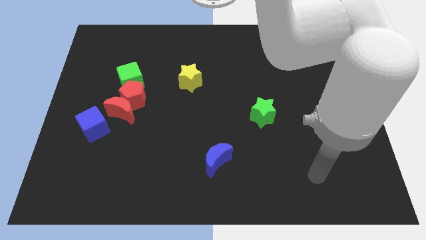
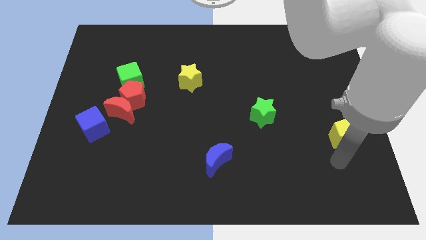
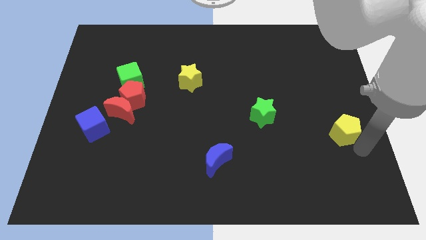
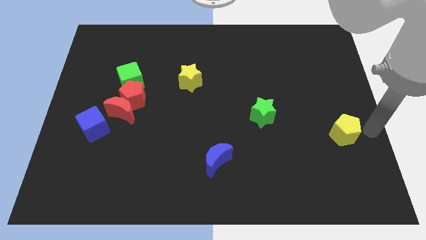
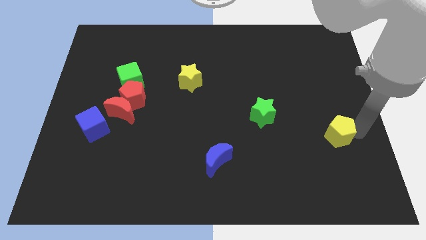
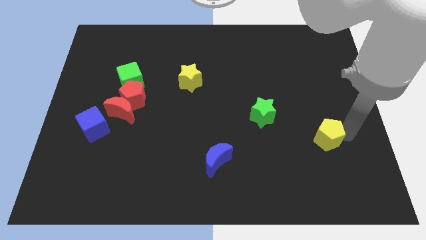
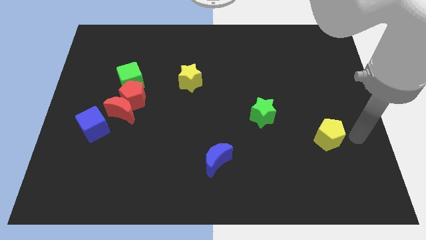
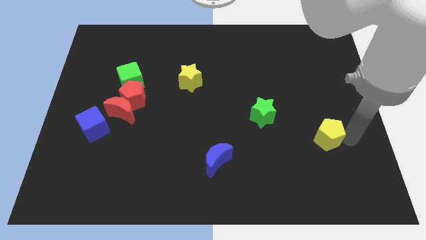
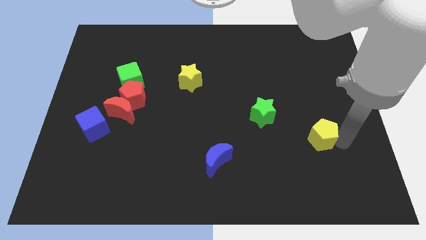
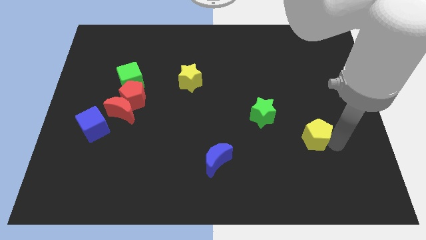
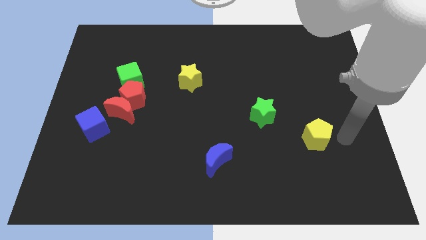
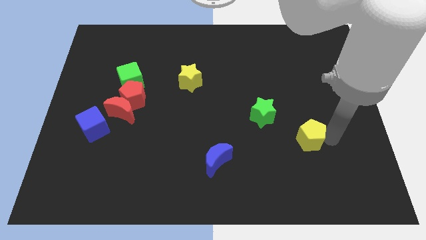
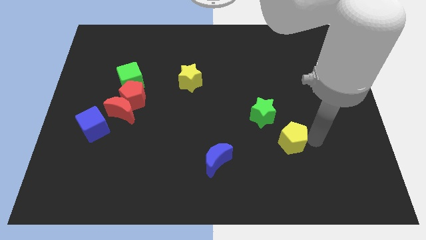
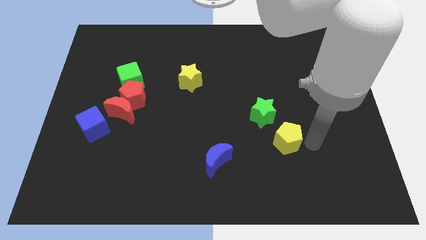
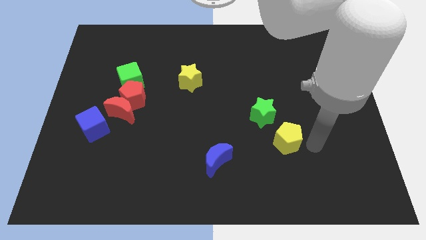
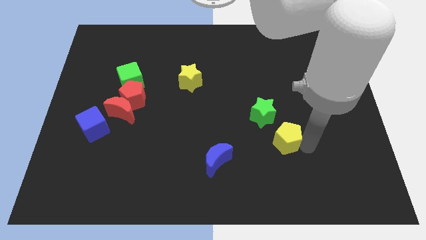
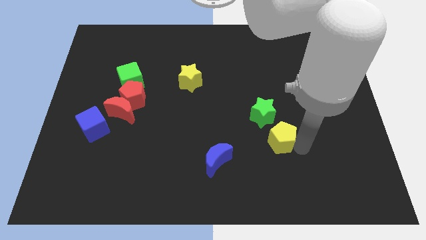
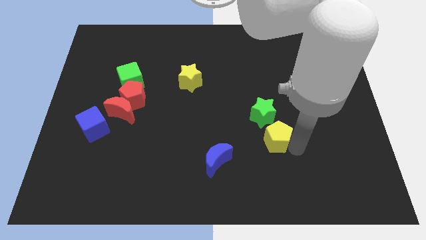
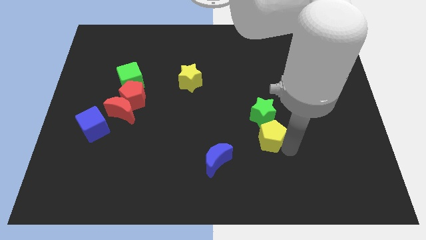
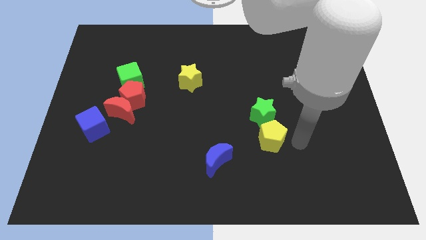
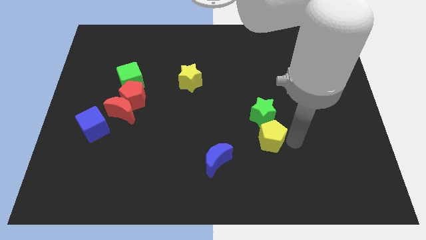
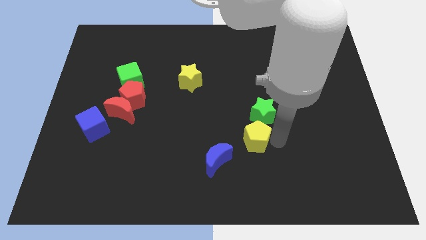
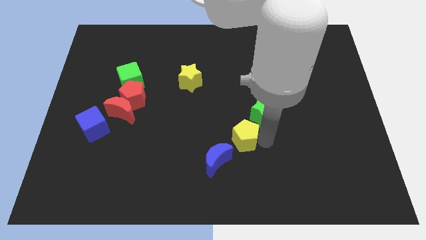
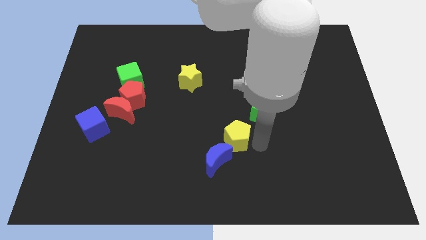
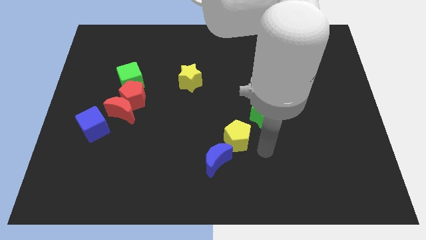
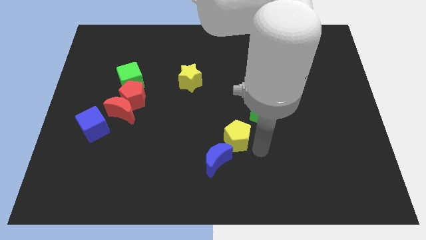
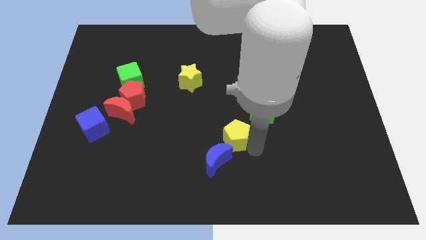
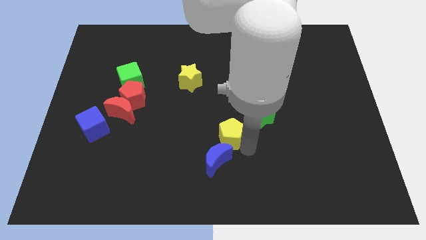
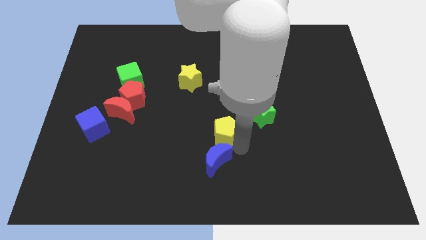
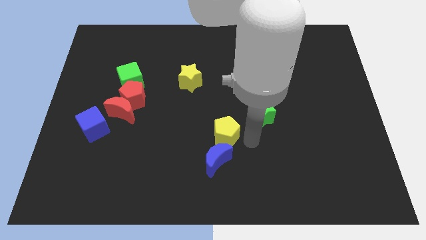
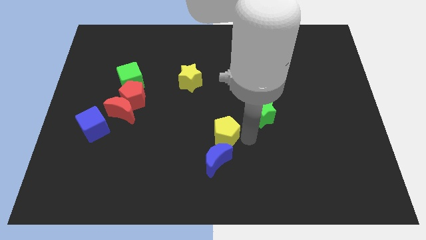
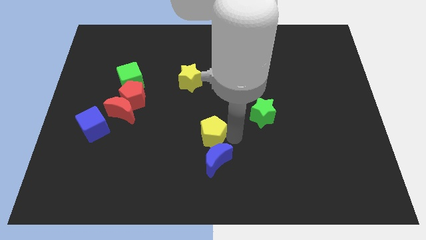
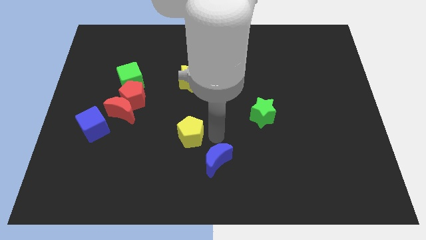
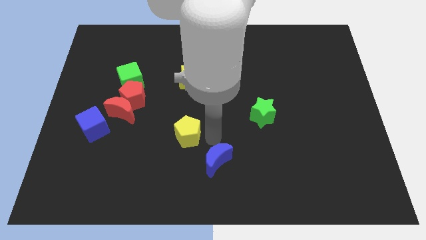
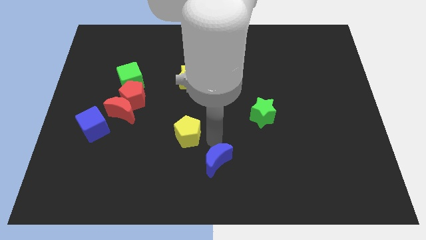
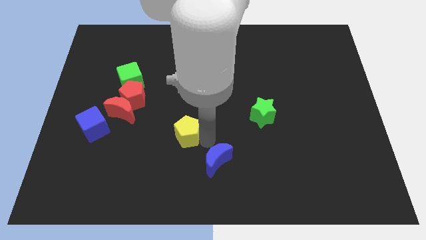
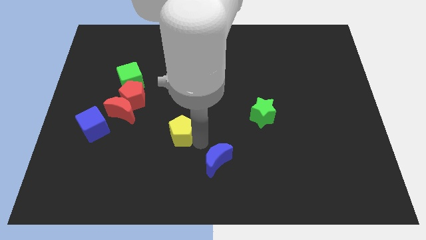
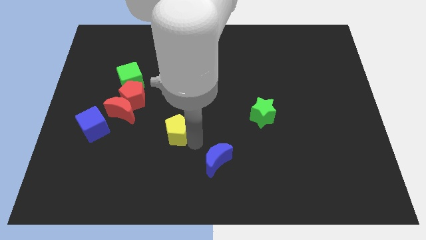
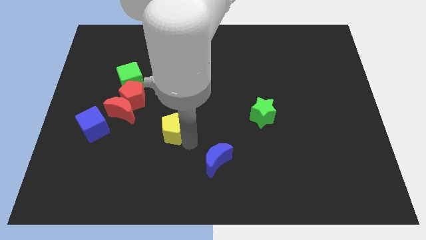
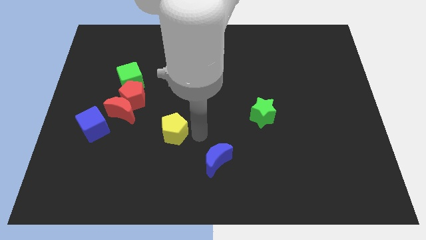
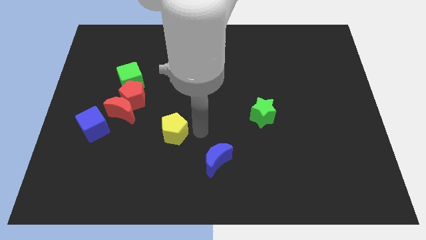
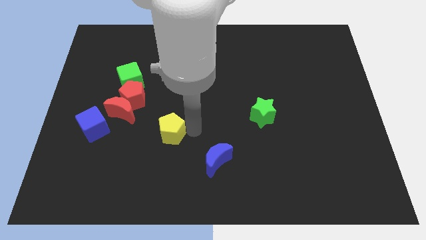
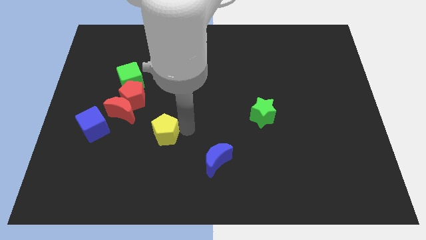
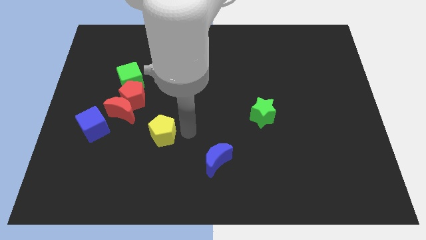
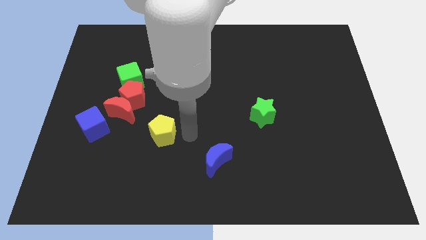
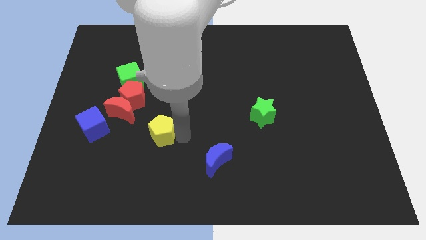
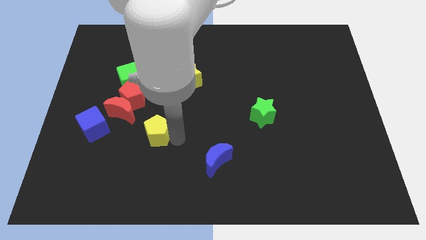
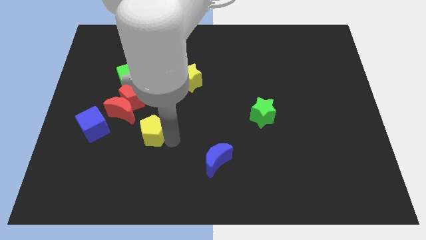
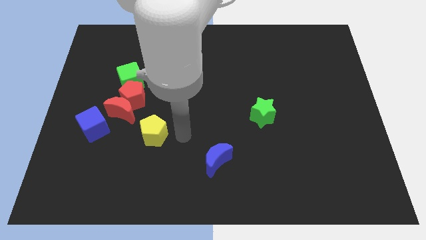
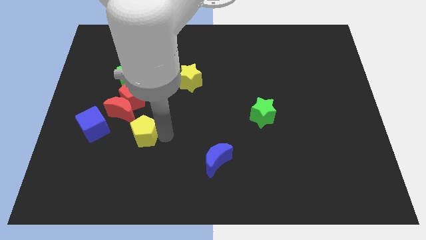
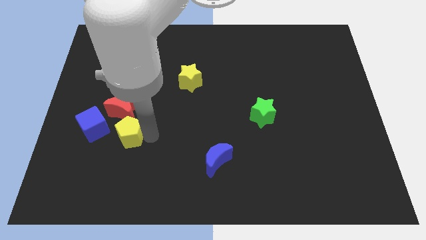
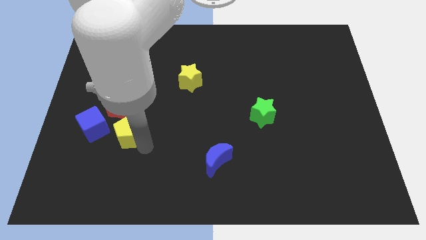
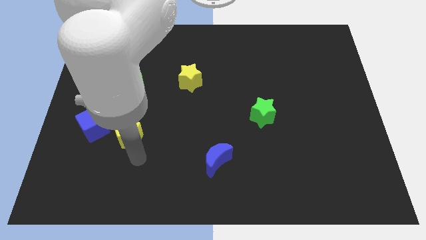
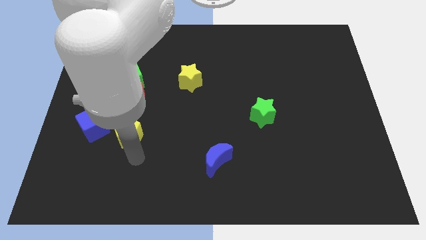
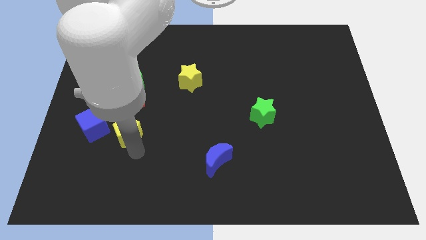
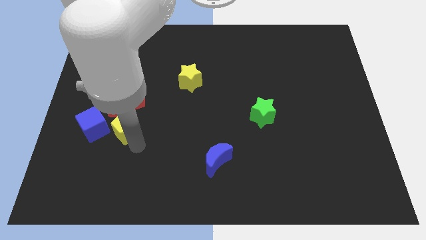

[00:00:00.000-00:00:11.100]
push the yellow pentagon next to the red moon

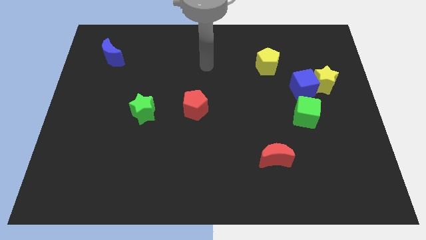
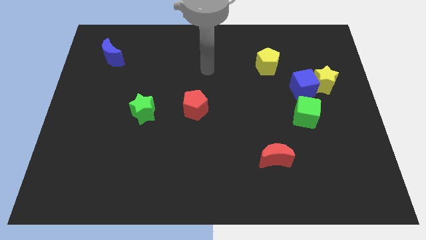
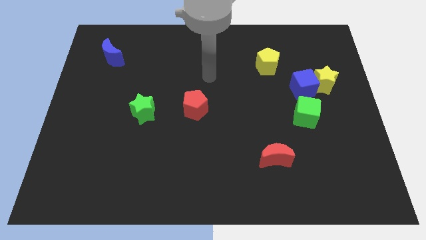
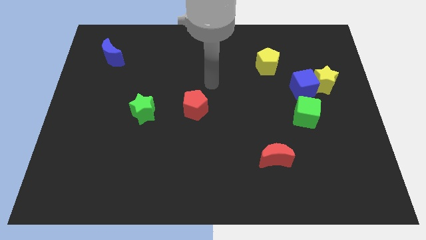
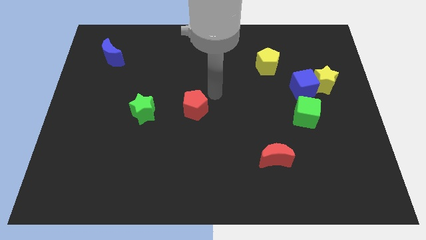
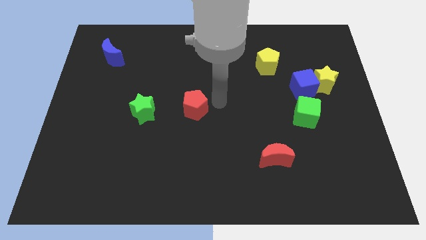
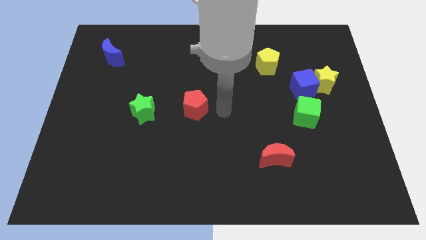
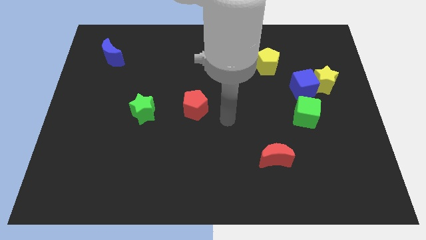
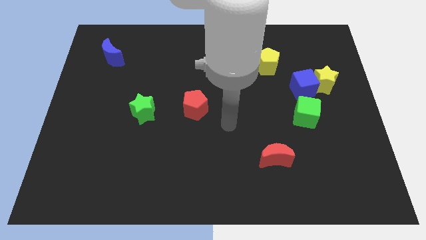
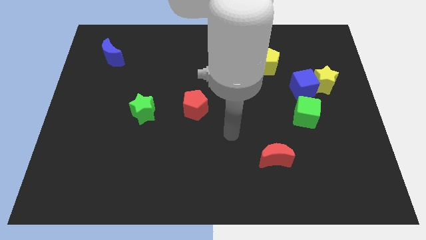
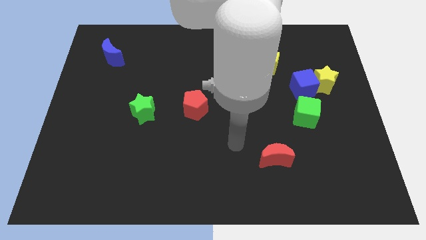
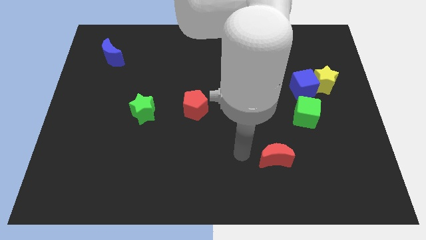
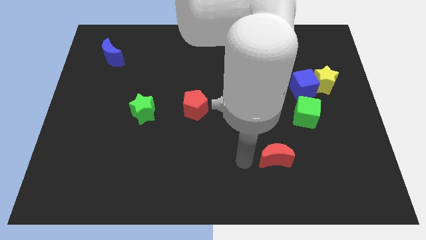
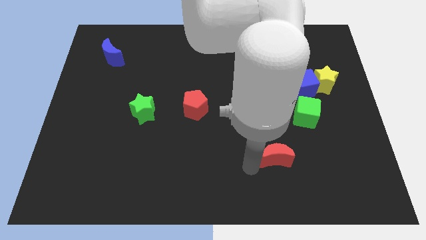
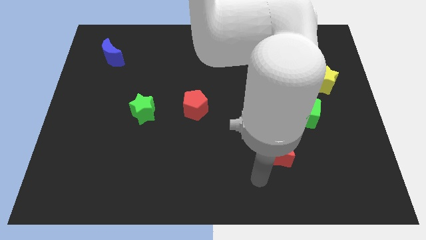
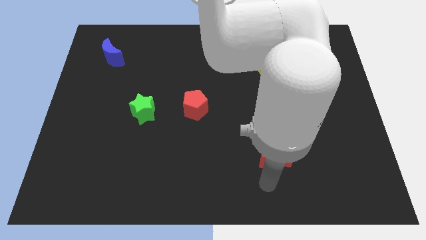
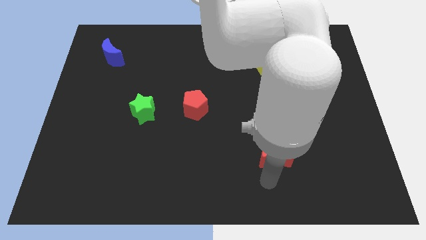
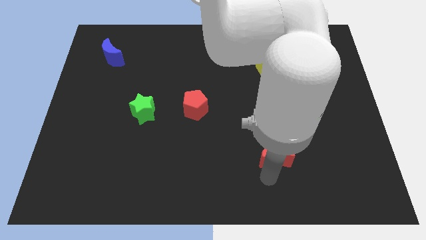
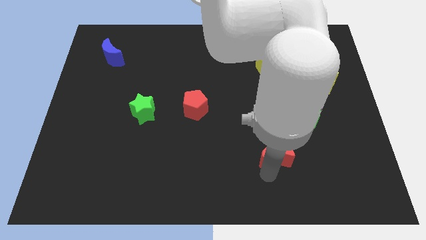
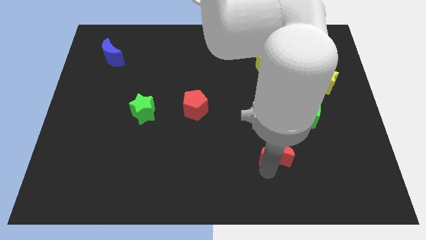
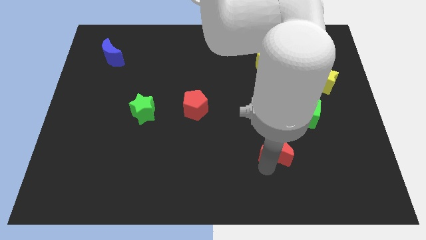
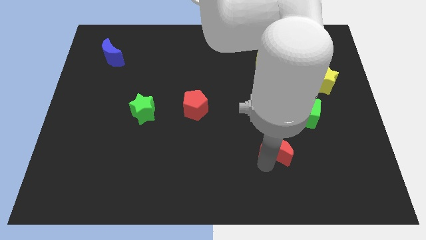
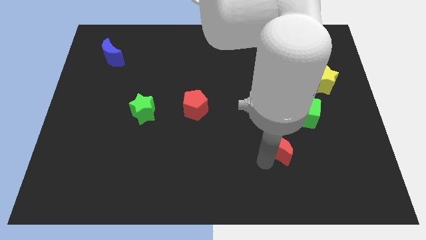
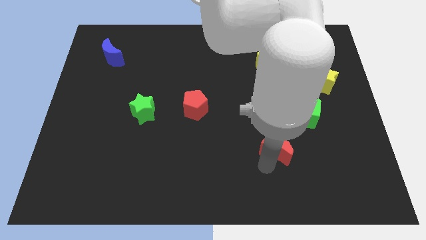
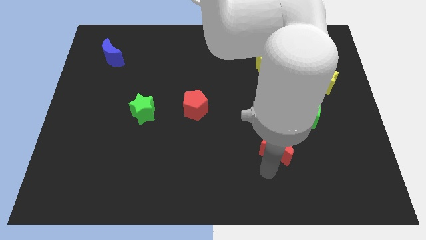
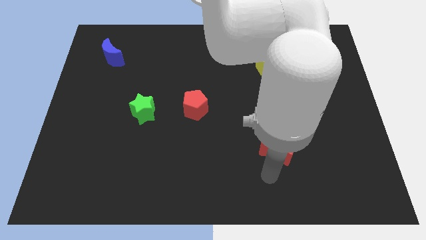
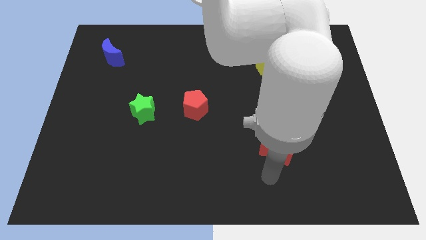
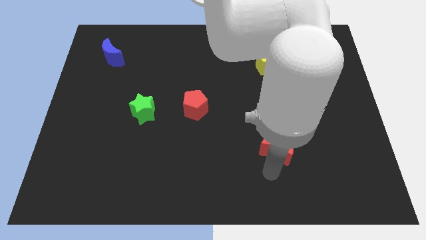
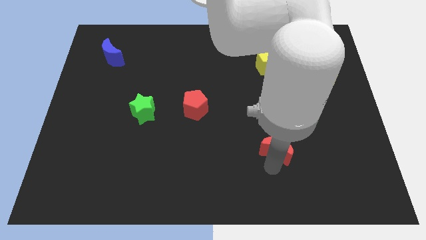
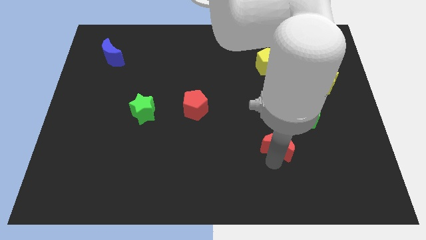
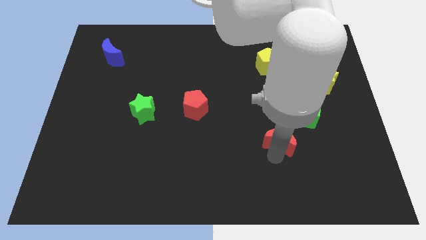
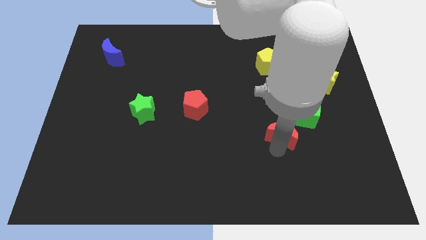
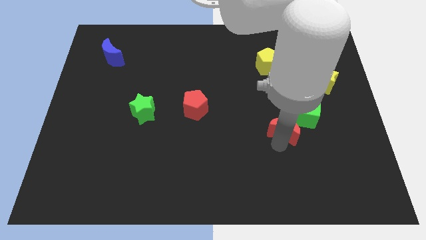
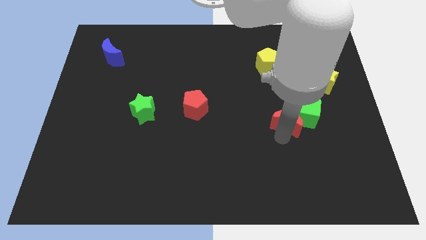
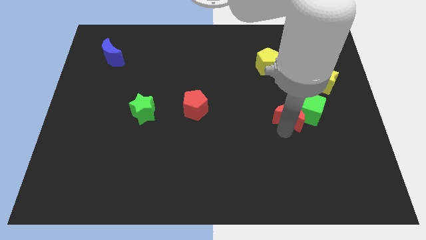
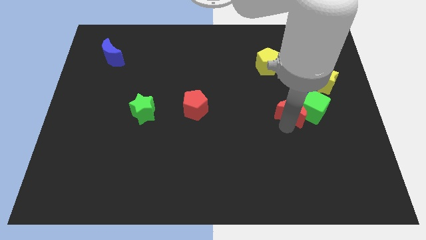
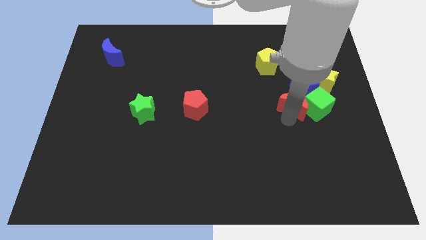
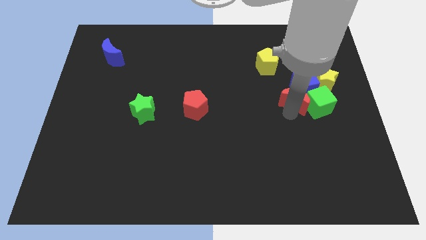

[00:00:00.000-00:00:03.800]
push the red moon towards the blue cube
